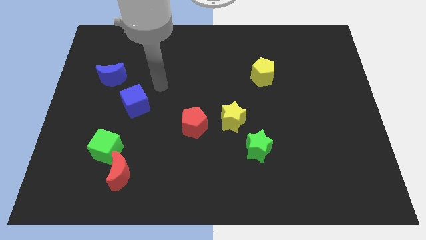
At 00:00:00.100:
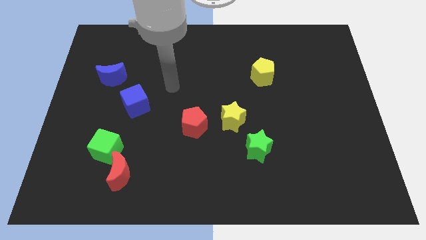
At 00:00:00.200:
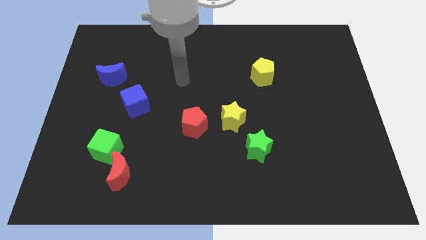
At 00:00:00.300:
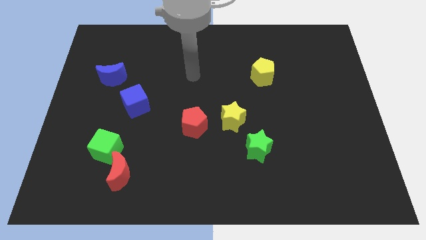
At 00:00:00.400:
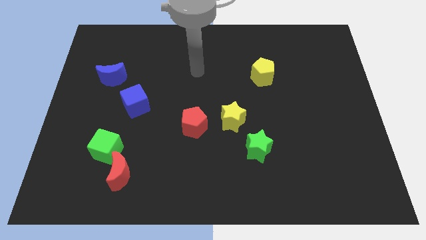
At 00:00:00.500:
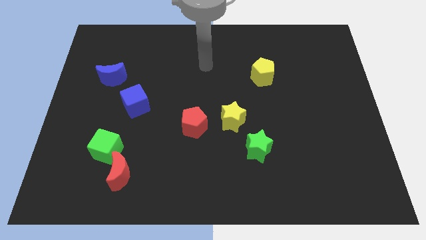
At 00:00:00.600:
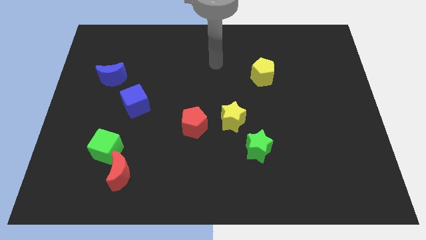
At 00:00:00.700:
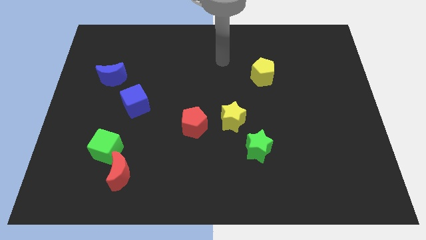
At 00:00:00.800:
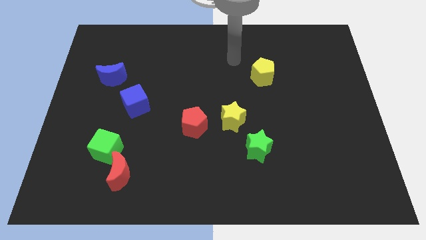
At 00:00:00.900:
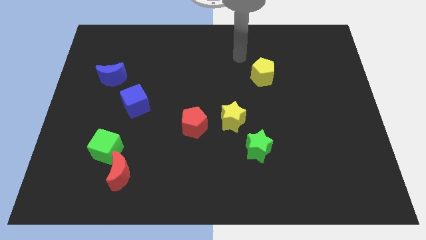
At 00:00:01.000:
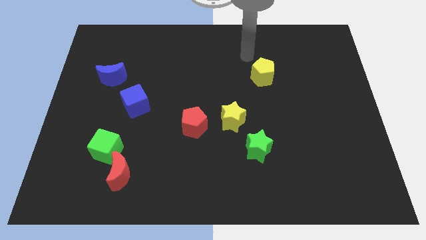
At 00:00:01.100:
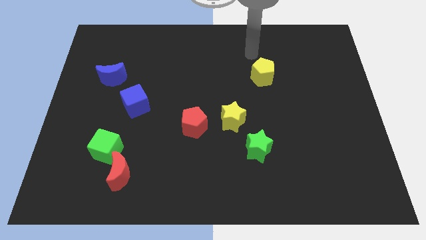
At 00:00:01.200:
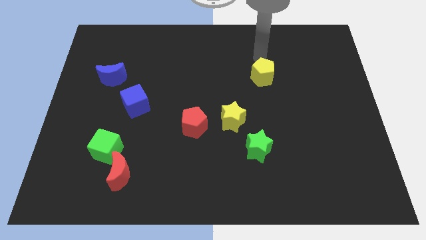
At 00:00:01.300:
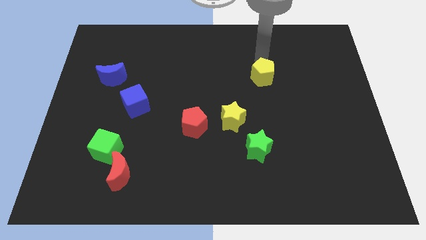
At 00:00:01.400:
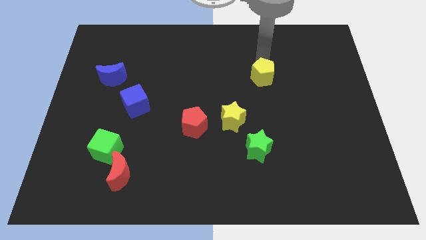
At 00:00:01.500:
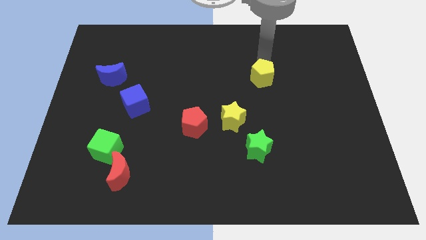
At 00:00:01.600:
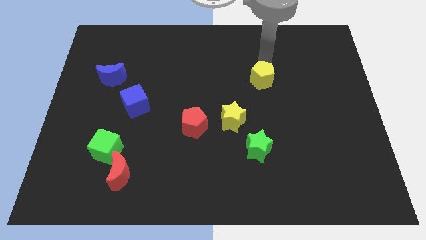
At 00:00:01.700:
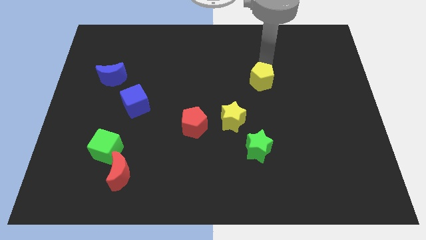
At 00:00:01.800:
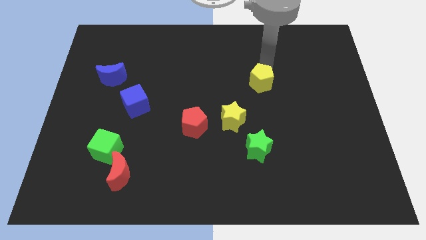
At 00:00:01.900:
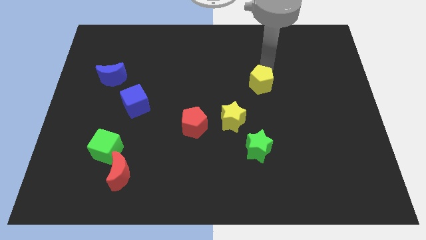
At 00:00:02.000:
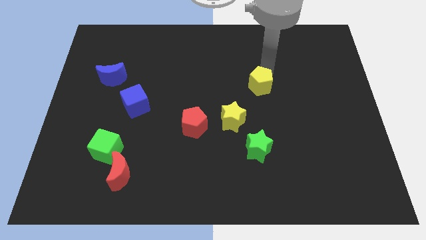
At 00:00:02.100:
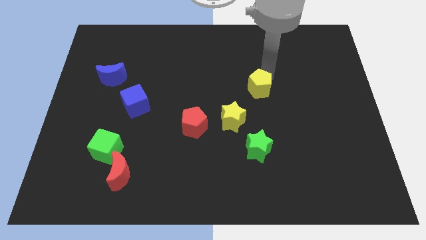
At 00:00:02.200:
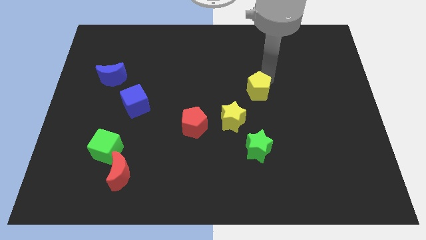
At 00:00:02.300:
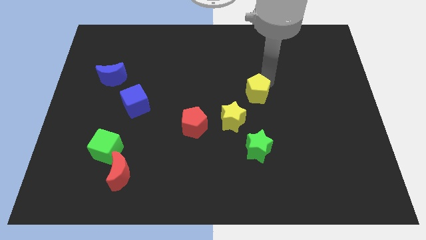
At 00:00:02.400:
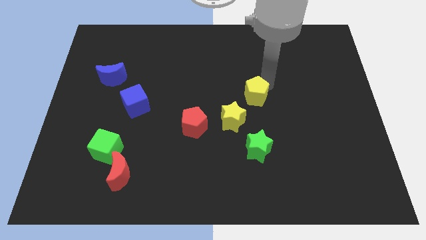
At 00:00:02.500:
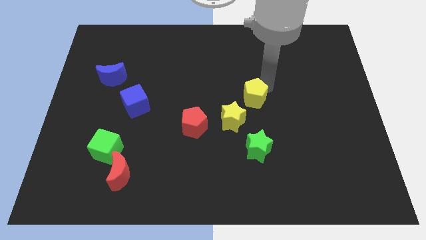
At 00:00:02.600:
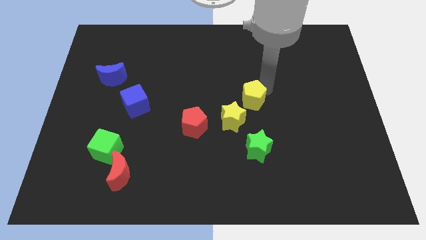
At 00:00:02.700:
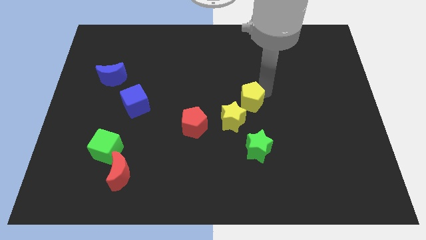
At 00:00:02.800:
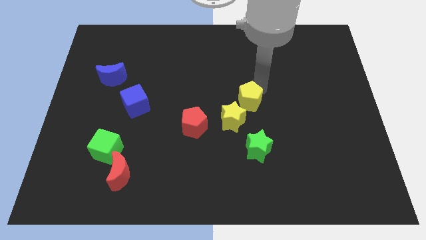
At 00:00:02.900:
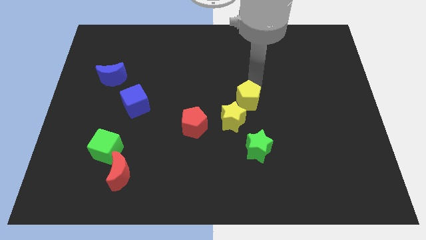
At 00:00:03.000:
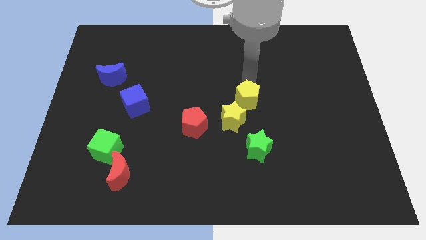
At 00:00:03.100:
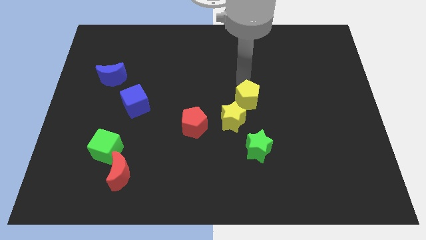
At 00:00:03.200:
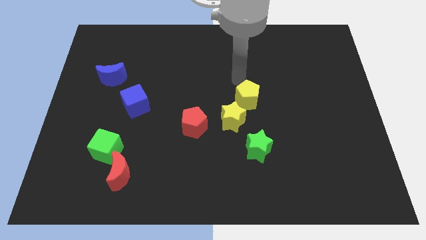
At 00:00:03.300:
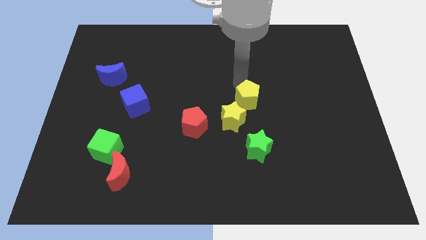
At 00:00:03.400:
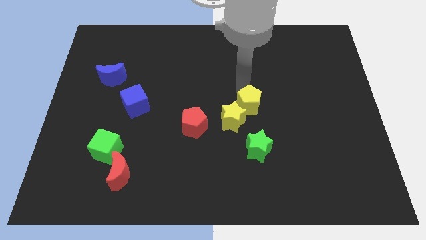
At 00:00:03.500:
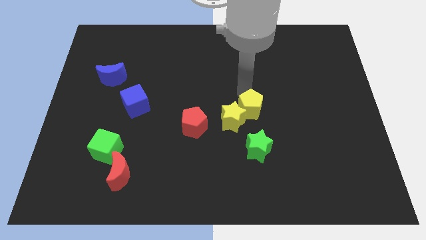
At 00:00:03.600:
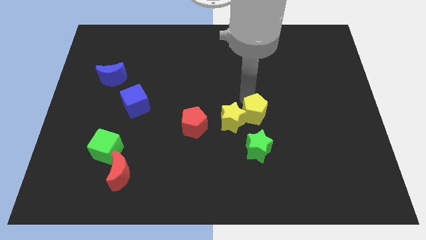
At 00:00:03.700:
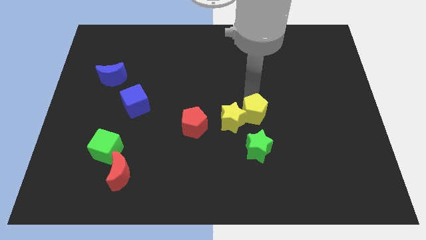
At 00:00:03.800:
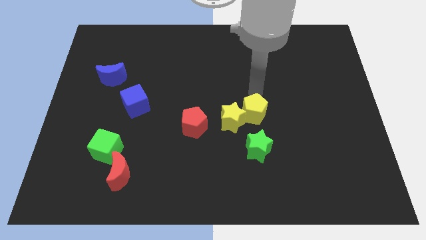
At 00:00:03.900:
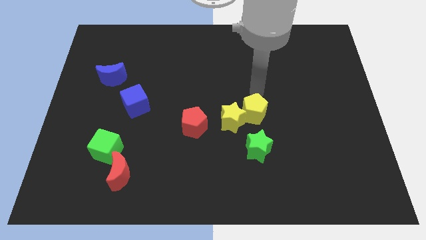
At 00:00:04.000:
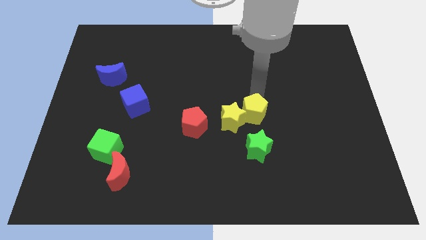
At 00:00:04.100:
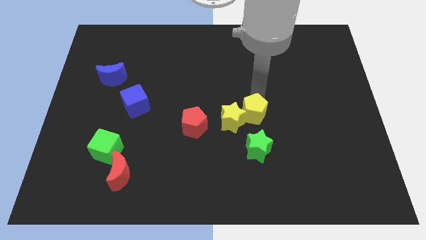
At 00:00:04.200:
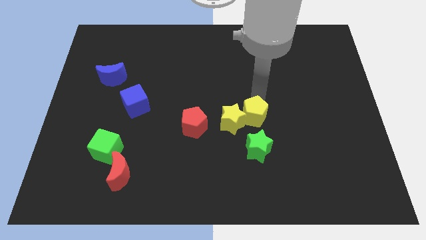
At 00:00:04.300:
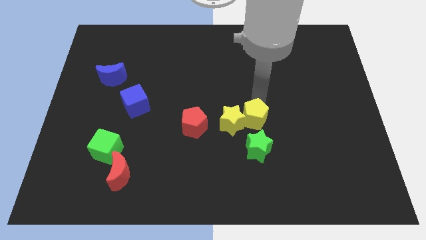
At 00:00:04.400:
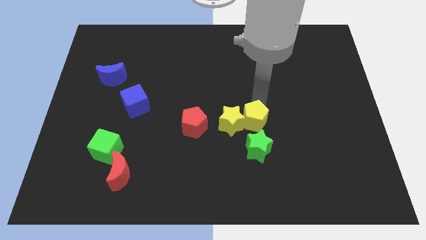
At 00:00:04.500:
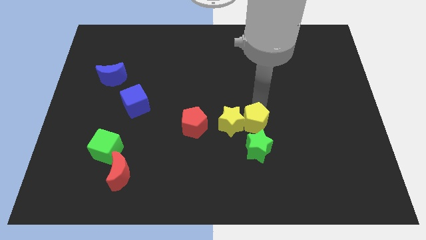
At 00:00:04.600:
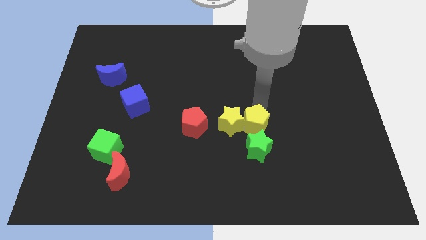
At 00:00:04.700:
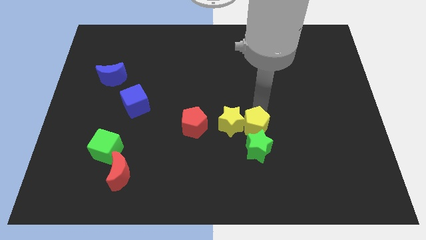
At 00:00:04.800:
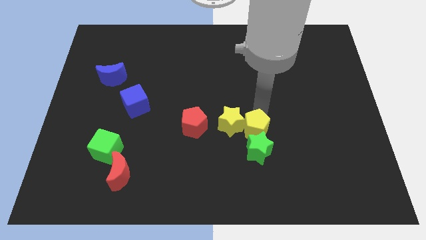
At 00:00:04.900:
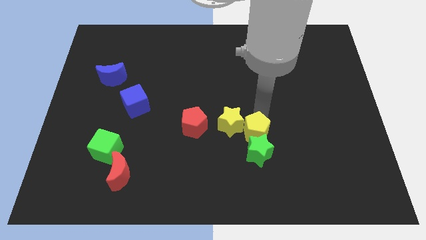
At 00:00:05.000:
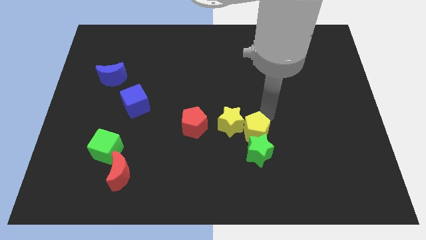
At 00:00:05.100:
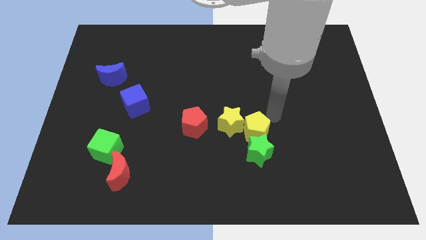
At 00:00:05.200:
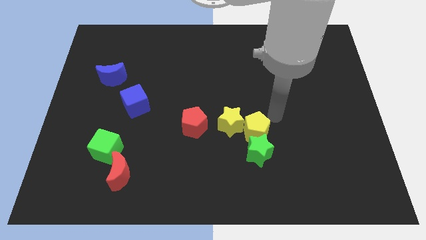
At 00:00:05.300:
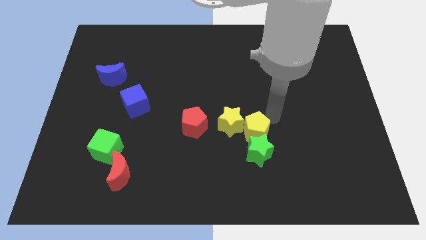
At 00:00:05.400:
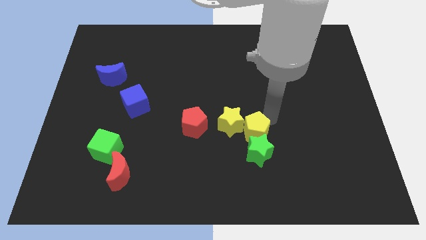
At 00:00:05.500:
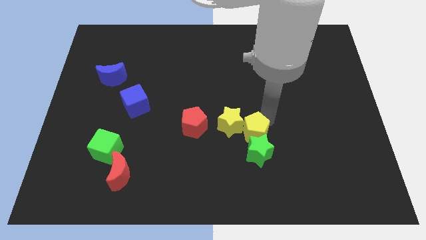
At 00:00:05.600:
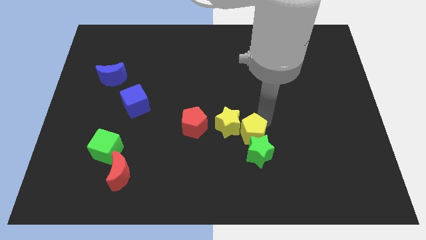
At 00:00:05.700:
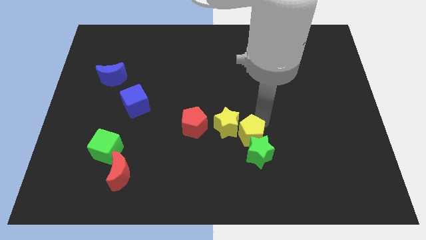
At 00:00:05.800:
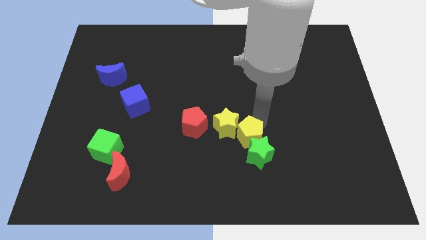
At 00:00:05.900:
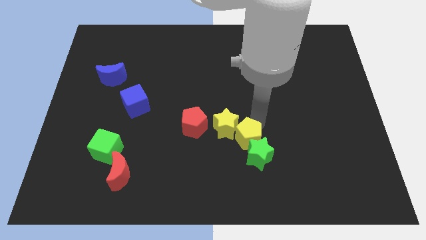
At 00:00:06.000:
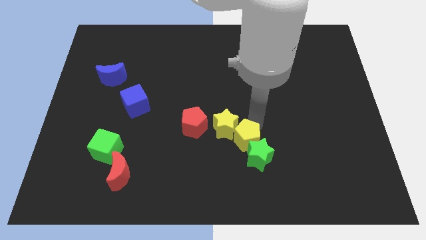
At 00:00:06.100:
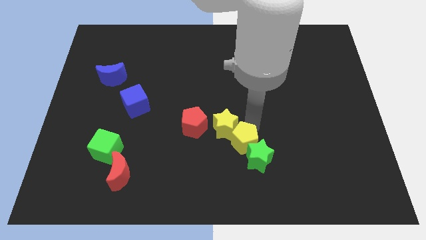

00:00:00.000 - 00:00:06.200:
move the yellow pentagon to the bottom side of the yellow star
